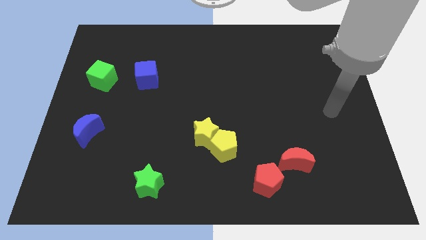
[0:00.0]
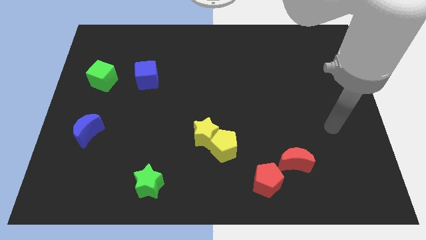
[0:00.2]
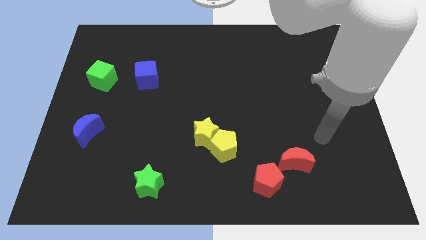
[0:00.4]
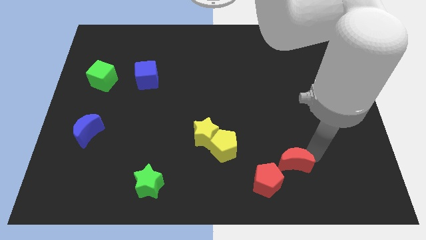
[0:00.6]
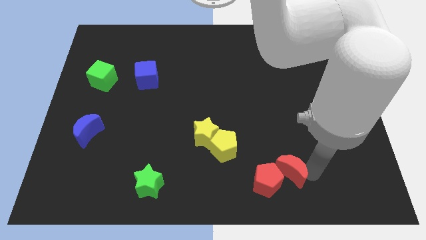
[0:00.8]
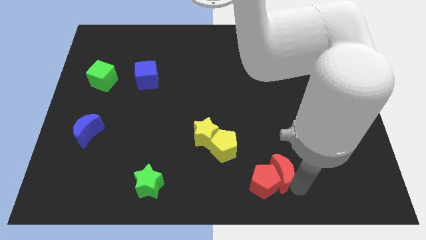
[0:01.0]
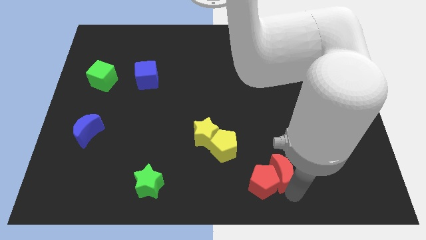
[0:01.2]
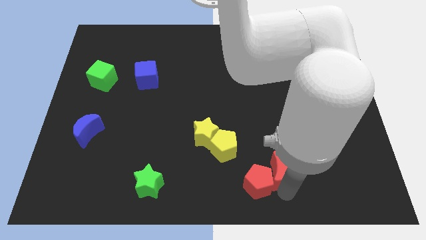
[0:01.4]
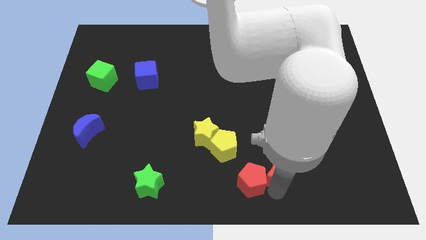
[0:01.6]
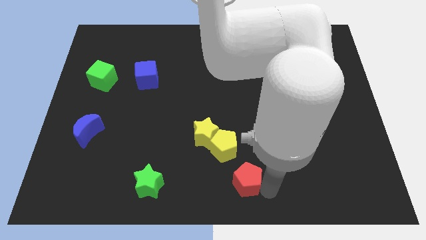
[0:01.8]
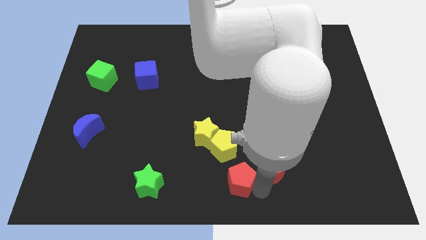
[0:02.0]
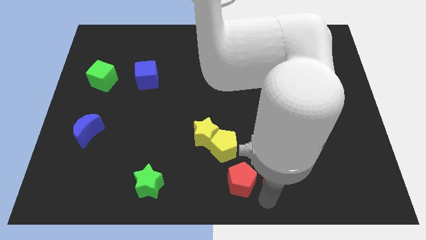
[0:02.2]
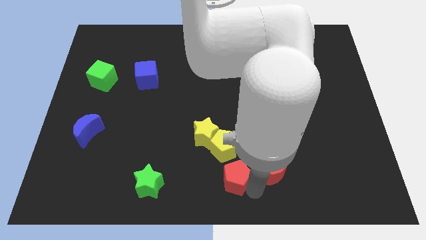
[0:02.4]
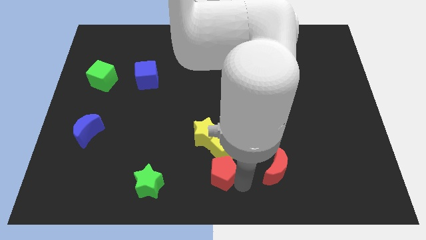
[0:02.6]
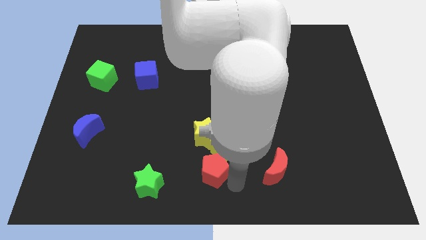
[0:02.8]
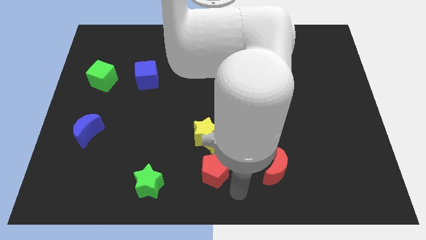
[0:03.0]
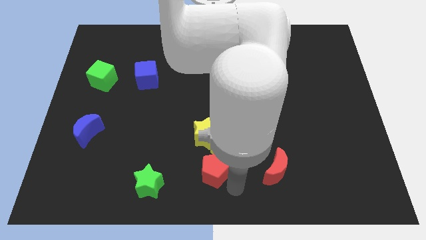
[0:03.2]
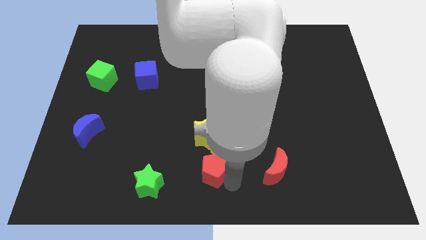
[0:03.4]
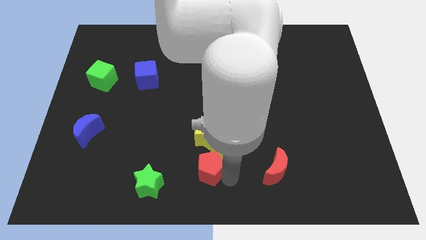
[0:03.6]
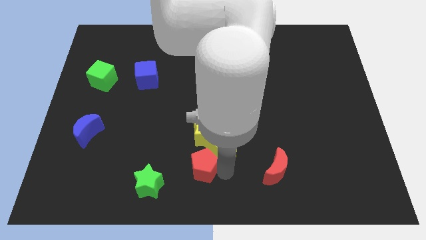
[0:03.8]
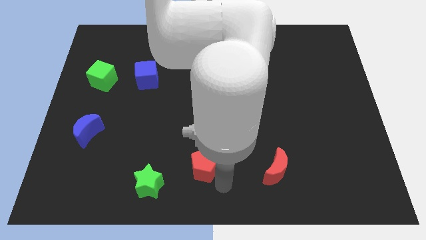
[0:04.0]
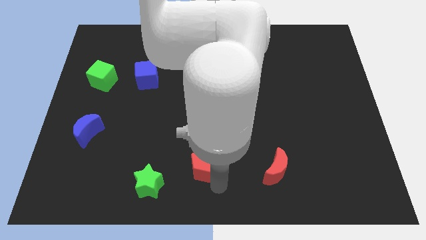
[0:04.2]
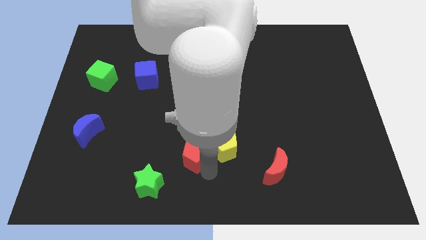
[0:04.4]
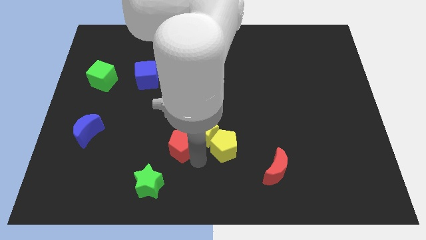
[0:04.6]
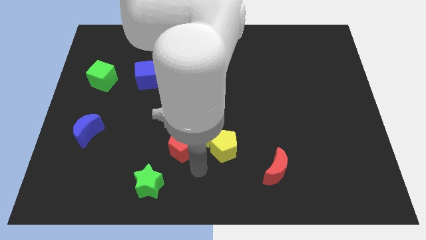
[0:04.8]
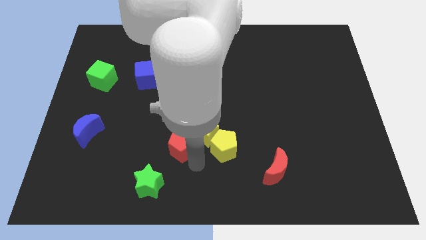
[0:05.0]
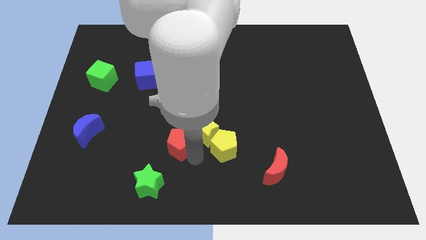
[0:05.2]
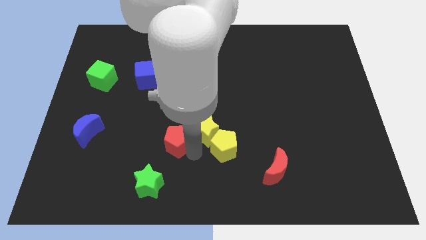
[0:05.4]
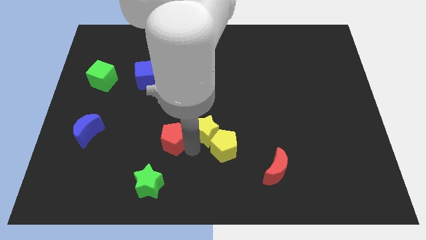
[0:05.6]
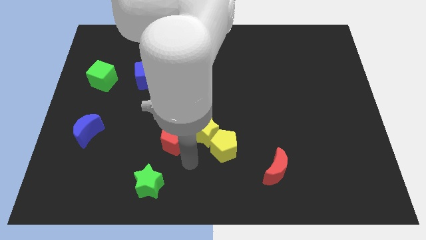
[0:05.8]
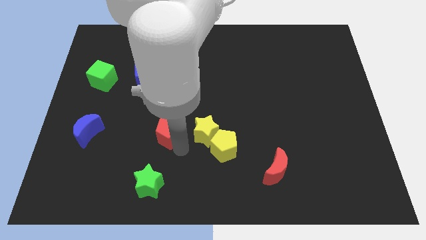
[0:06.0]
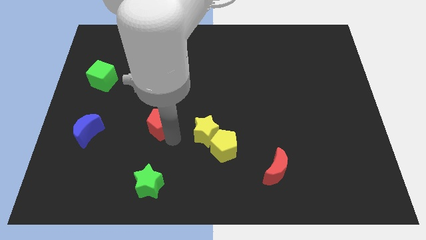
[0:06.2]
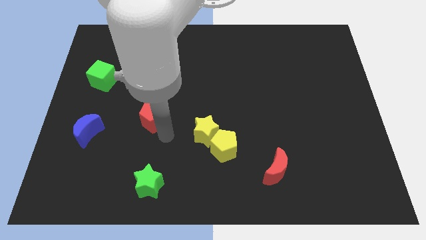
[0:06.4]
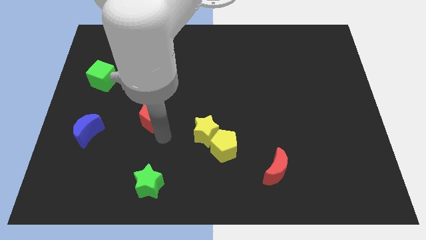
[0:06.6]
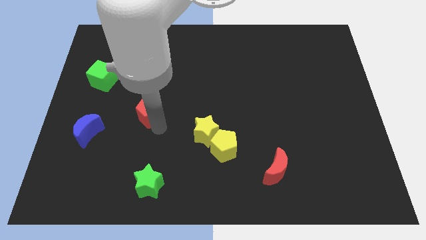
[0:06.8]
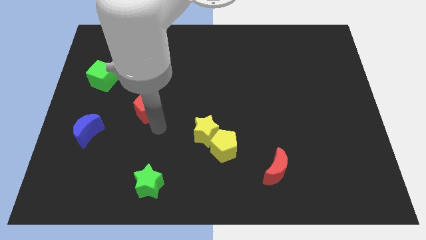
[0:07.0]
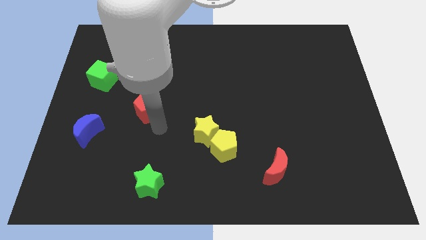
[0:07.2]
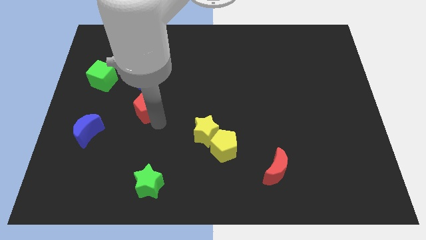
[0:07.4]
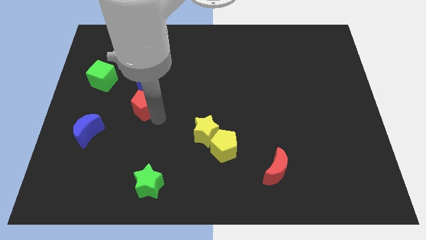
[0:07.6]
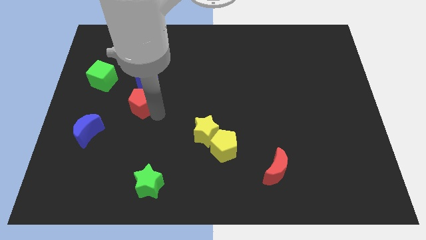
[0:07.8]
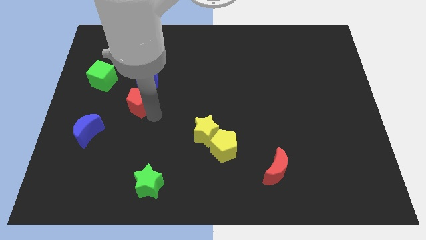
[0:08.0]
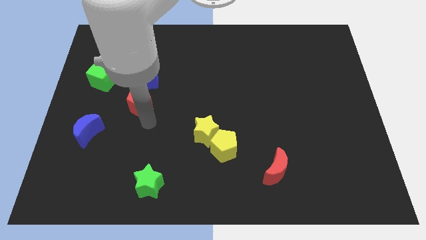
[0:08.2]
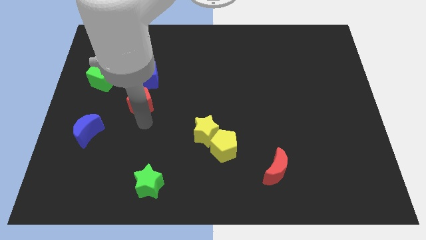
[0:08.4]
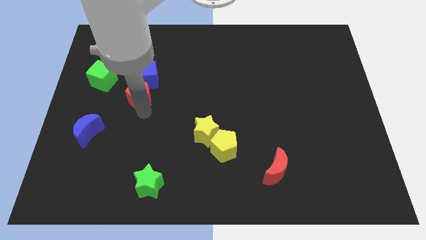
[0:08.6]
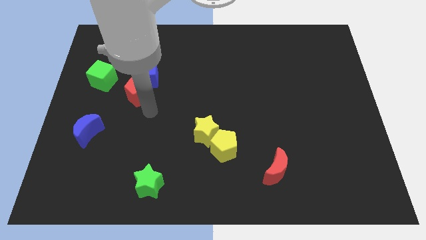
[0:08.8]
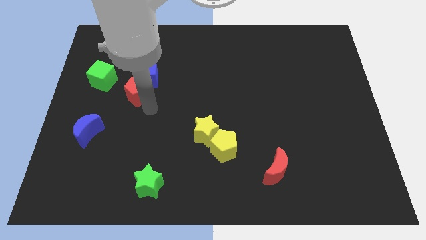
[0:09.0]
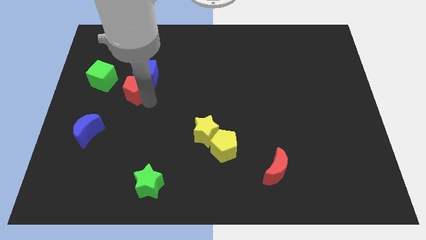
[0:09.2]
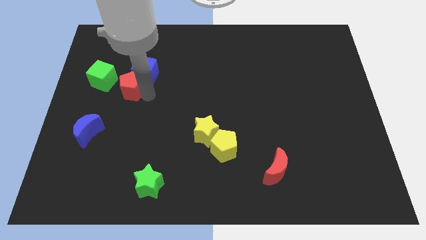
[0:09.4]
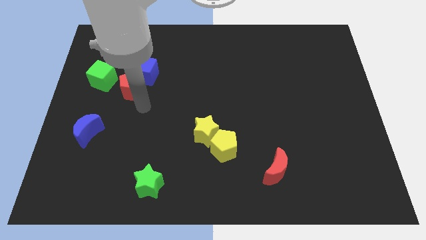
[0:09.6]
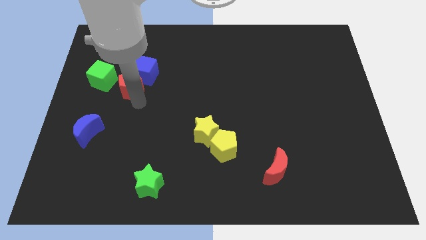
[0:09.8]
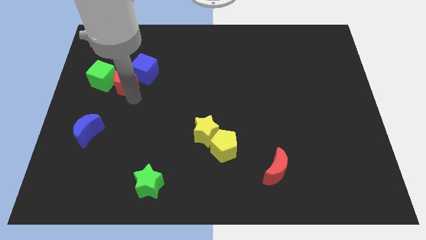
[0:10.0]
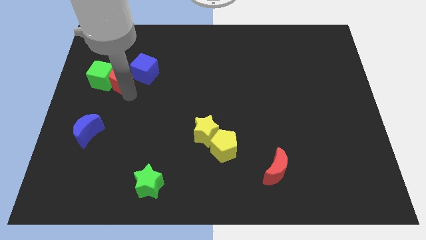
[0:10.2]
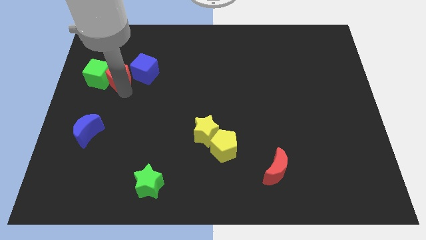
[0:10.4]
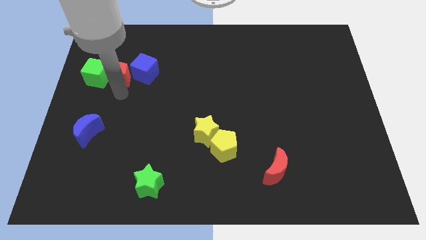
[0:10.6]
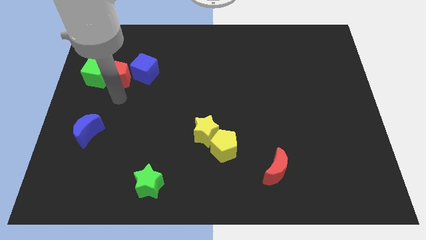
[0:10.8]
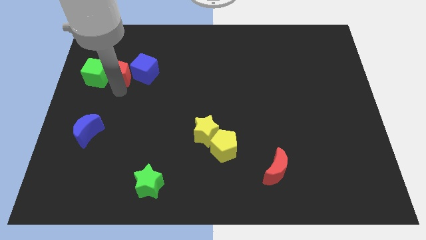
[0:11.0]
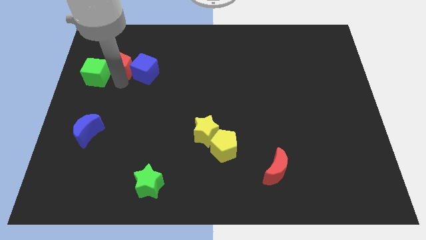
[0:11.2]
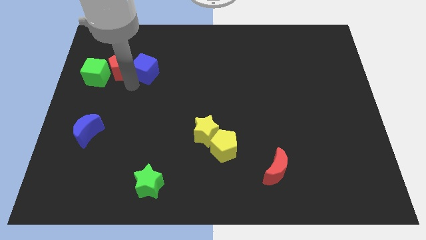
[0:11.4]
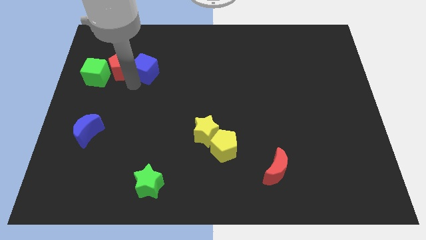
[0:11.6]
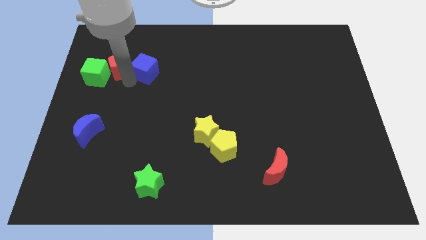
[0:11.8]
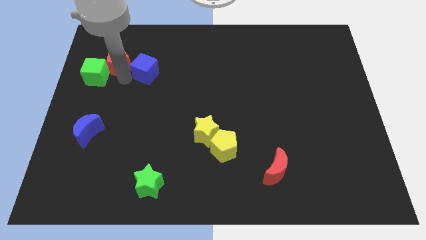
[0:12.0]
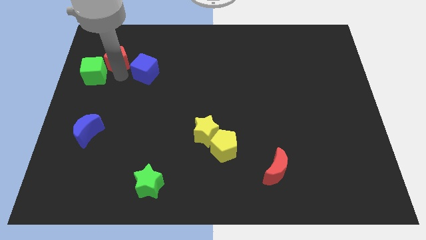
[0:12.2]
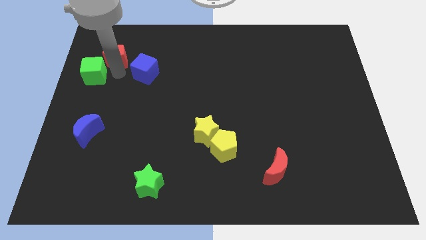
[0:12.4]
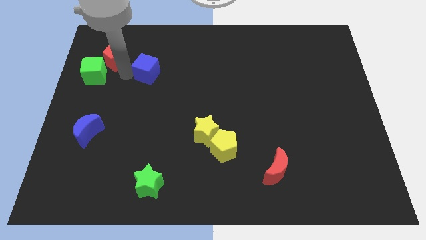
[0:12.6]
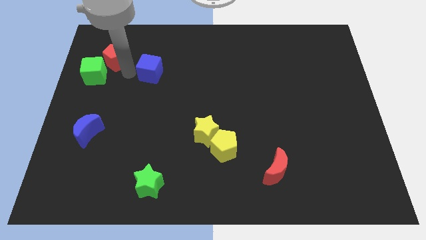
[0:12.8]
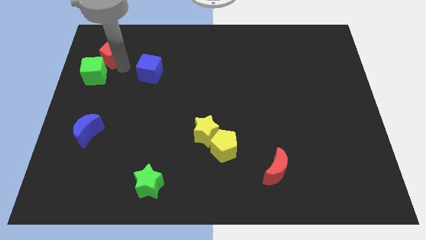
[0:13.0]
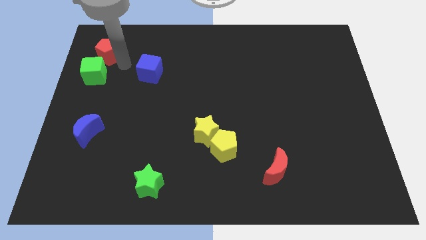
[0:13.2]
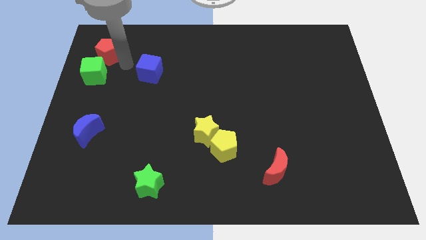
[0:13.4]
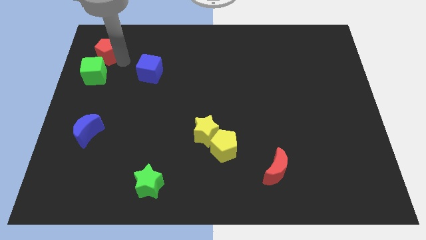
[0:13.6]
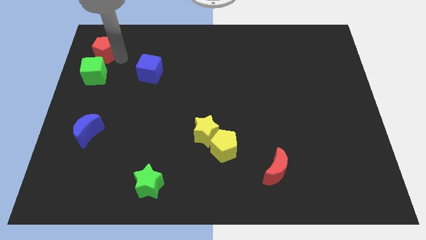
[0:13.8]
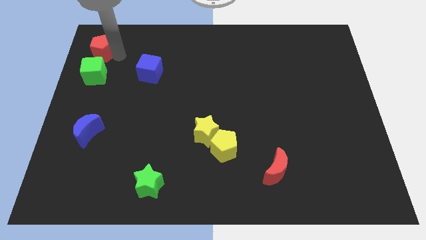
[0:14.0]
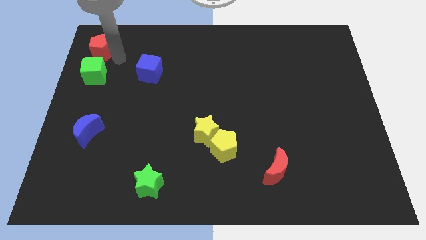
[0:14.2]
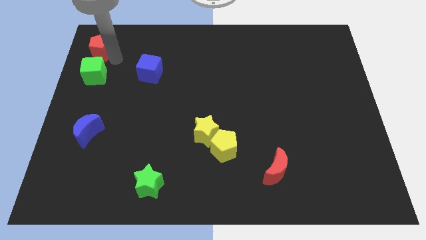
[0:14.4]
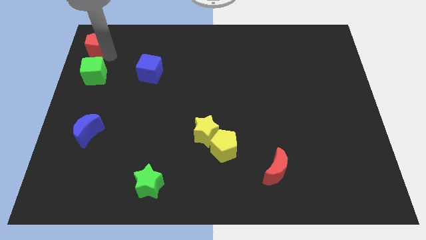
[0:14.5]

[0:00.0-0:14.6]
put the red pentagon to the top left of the board
